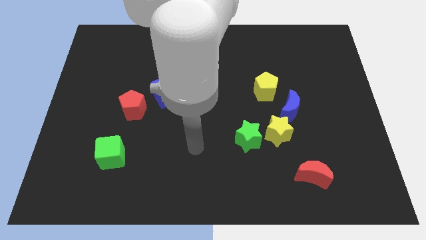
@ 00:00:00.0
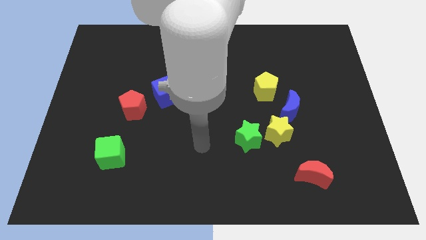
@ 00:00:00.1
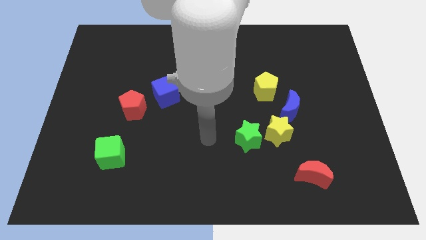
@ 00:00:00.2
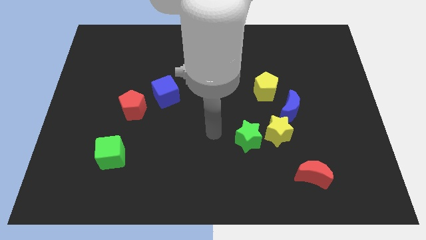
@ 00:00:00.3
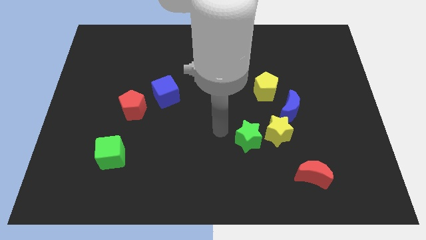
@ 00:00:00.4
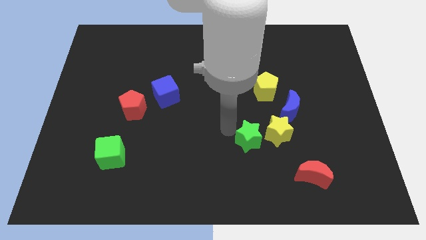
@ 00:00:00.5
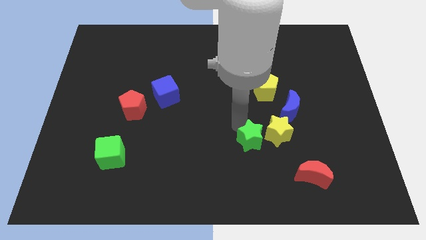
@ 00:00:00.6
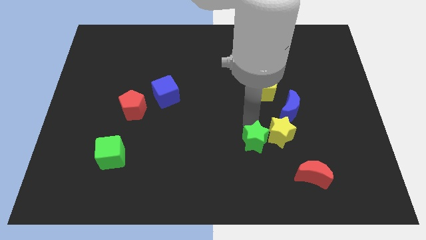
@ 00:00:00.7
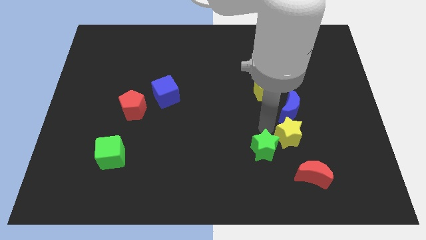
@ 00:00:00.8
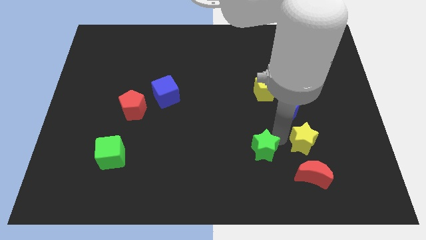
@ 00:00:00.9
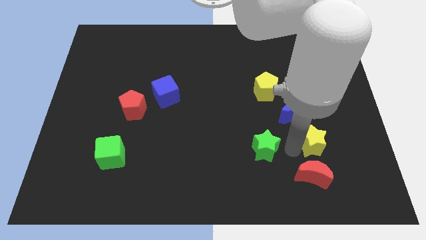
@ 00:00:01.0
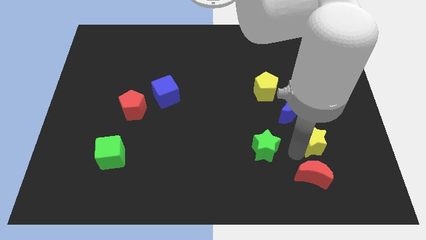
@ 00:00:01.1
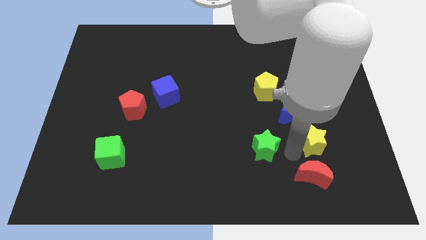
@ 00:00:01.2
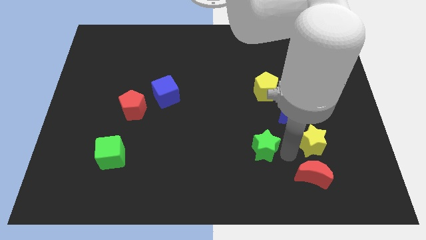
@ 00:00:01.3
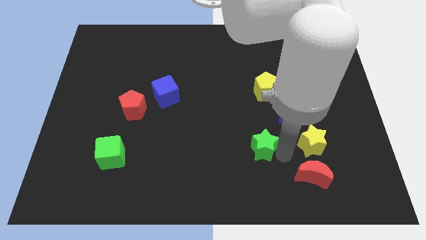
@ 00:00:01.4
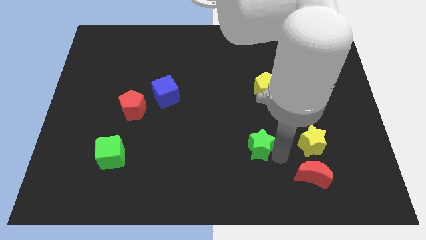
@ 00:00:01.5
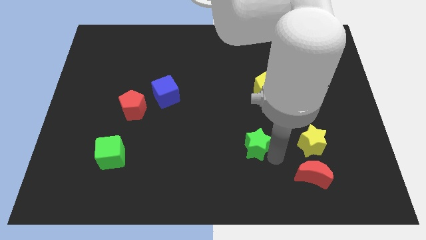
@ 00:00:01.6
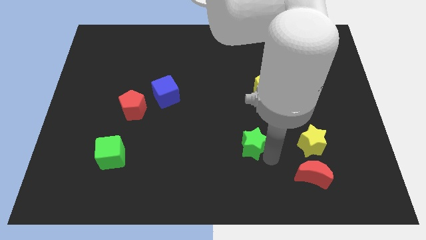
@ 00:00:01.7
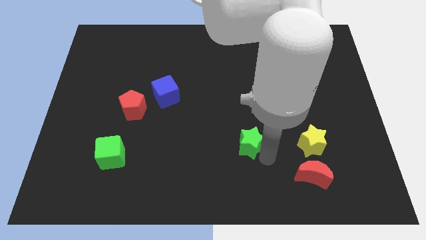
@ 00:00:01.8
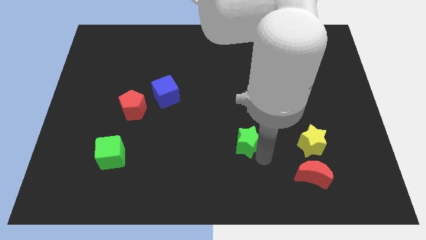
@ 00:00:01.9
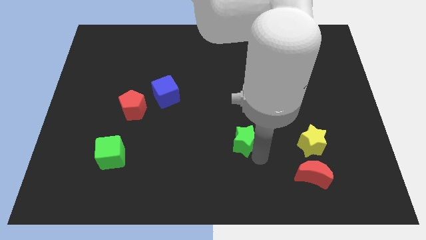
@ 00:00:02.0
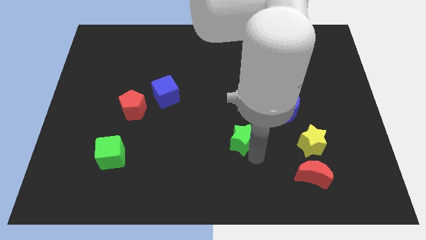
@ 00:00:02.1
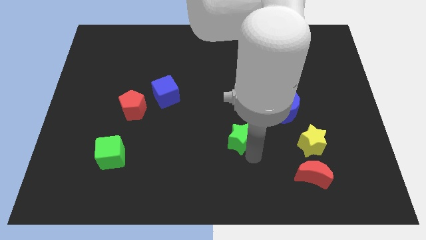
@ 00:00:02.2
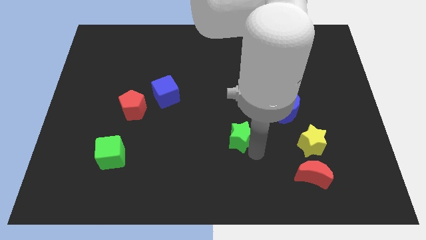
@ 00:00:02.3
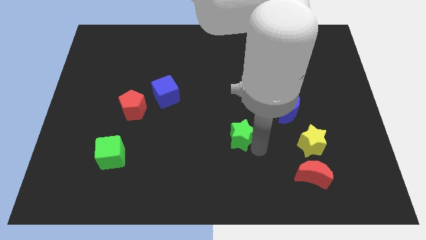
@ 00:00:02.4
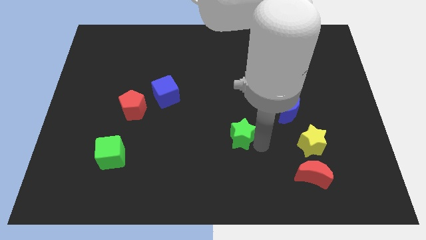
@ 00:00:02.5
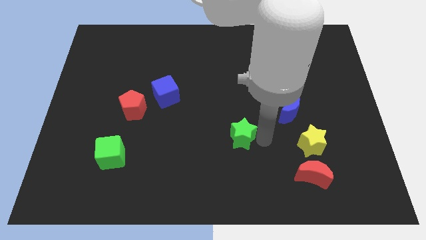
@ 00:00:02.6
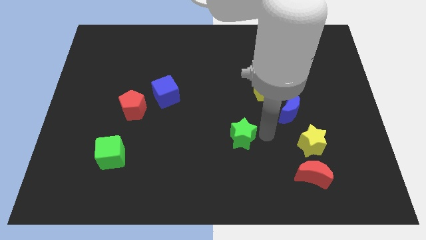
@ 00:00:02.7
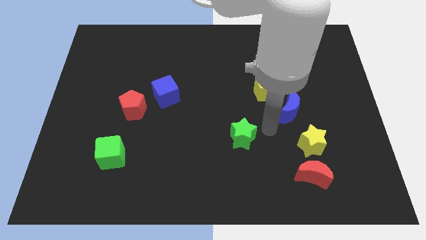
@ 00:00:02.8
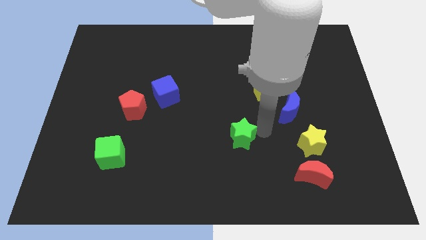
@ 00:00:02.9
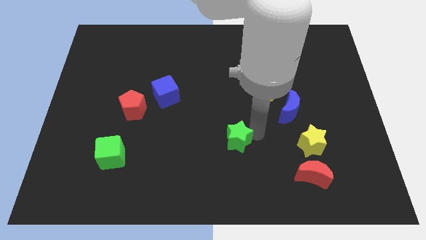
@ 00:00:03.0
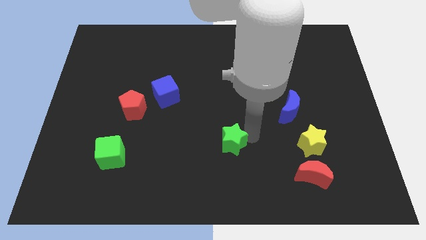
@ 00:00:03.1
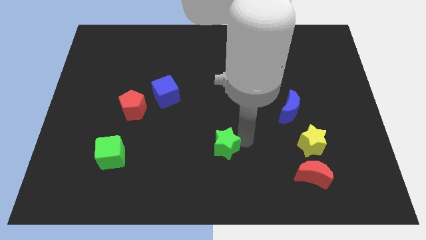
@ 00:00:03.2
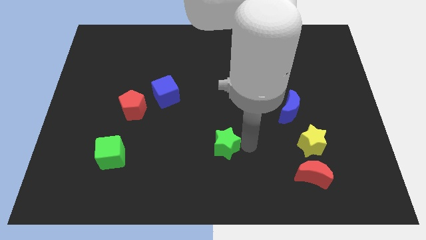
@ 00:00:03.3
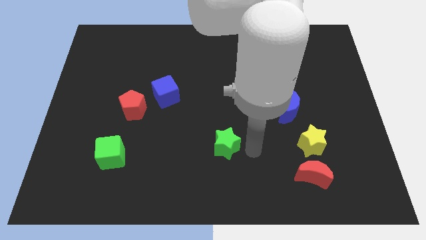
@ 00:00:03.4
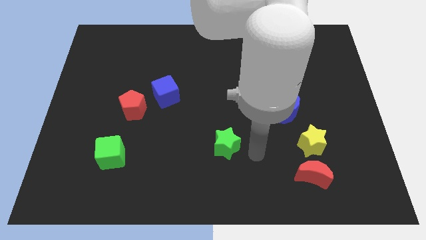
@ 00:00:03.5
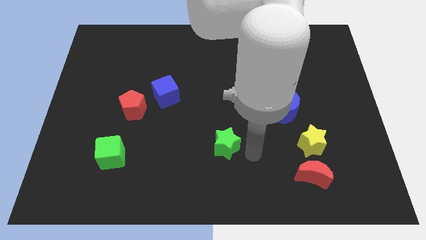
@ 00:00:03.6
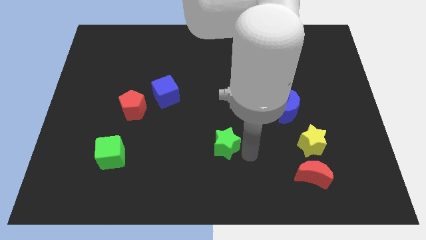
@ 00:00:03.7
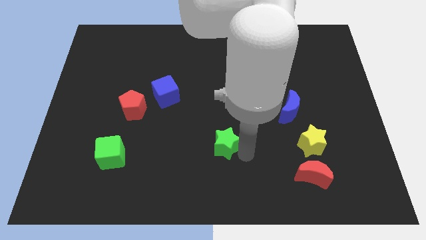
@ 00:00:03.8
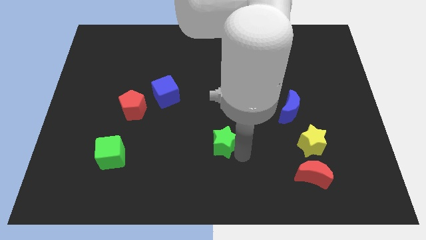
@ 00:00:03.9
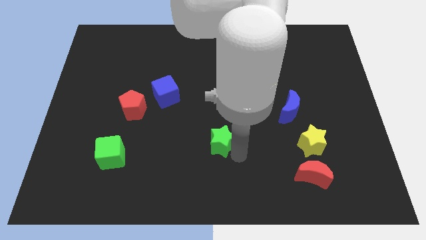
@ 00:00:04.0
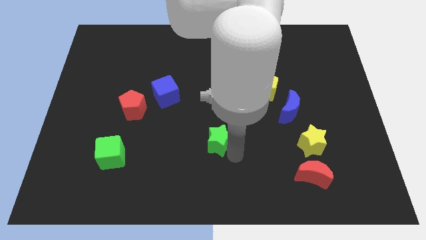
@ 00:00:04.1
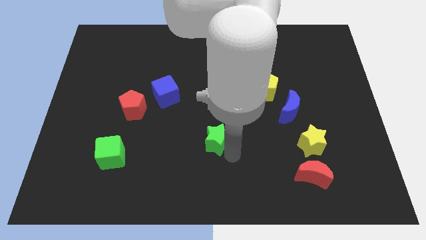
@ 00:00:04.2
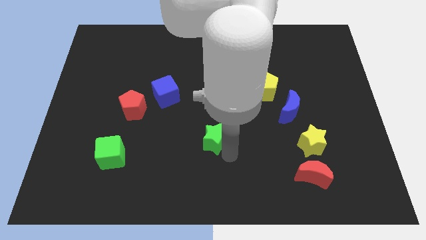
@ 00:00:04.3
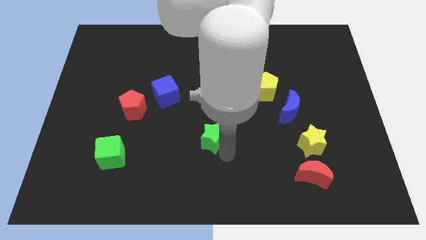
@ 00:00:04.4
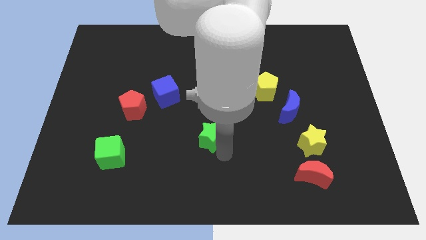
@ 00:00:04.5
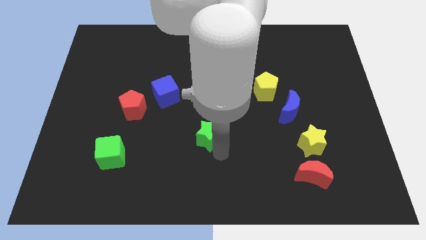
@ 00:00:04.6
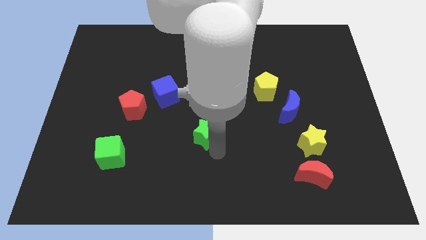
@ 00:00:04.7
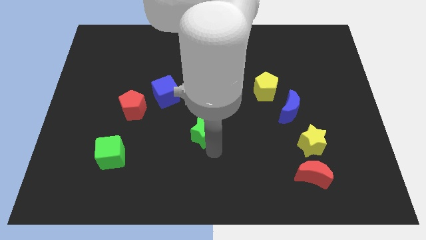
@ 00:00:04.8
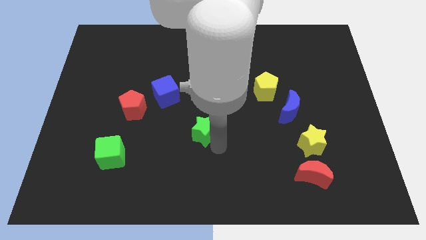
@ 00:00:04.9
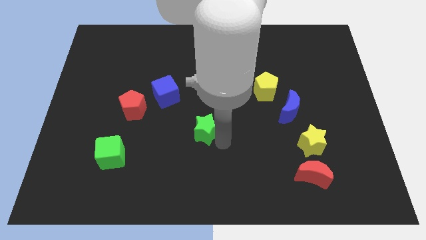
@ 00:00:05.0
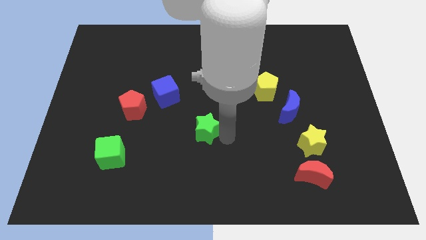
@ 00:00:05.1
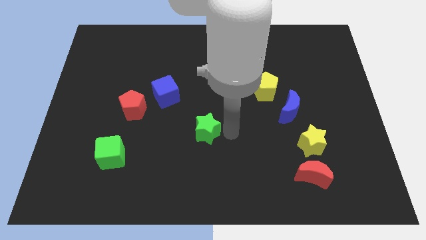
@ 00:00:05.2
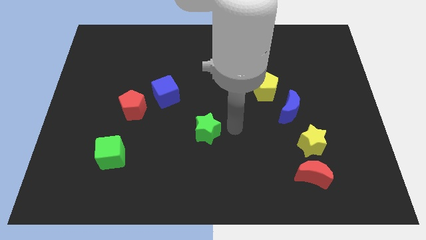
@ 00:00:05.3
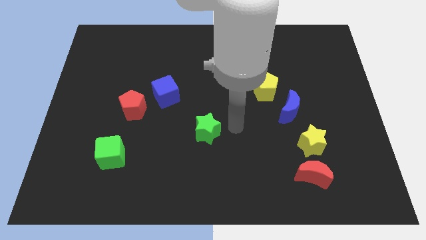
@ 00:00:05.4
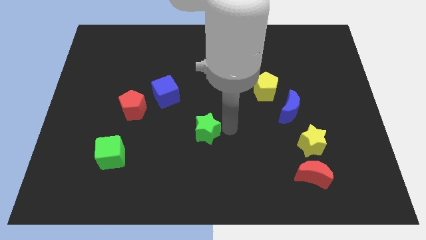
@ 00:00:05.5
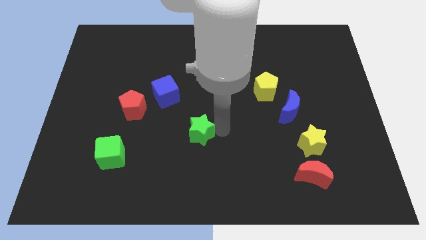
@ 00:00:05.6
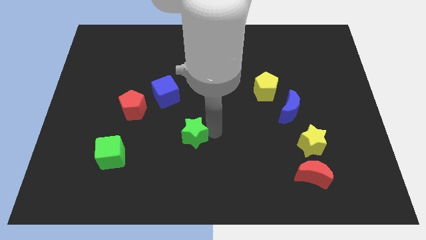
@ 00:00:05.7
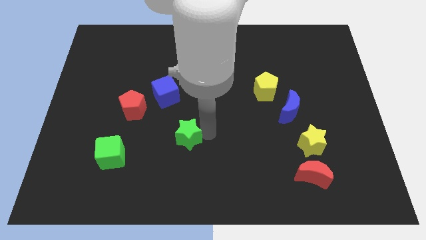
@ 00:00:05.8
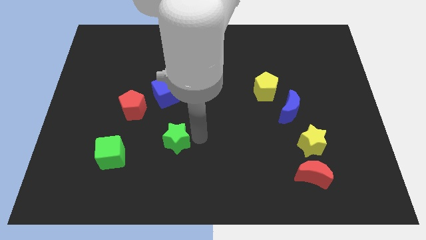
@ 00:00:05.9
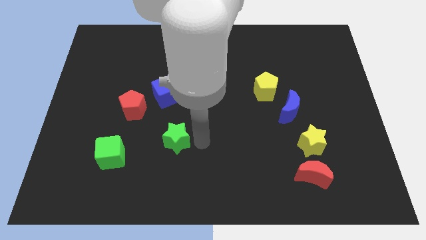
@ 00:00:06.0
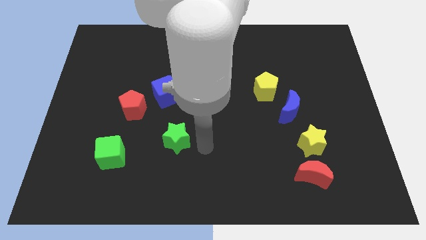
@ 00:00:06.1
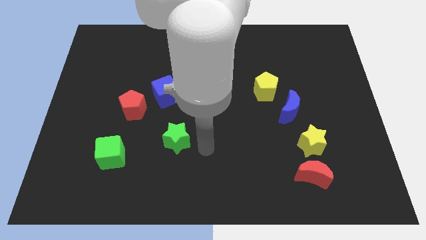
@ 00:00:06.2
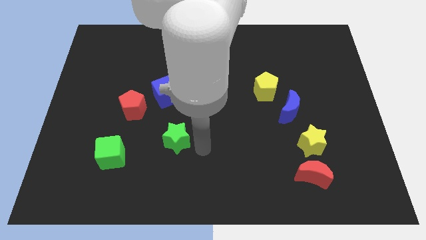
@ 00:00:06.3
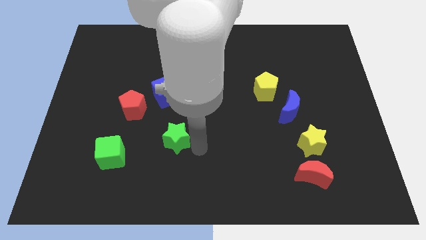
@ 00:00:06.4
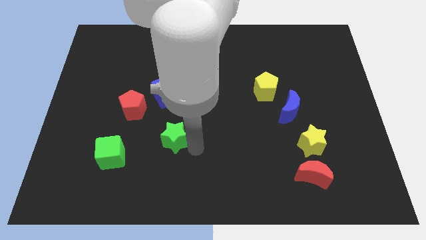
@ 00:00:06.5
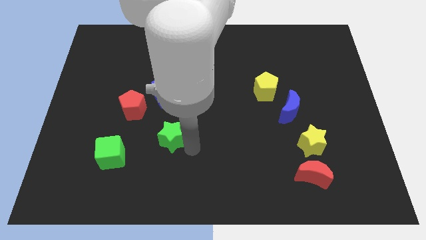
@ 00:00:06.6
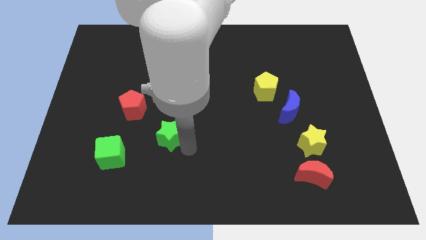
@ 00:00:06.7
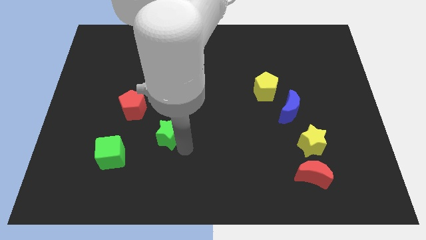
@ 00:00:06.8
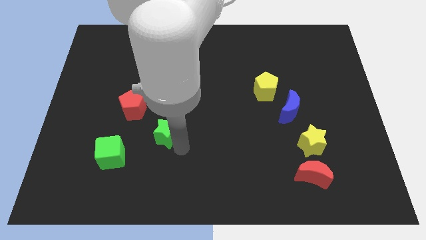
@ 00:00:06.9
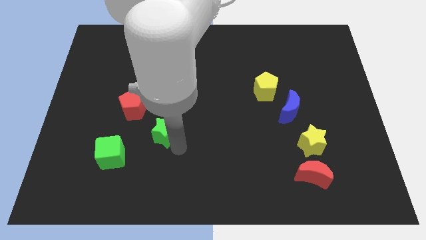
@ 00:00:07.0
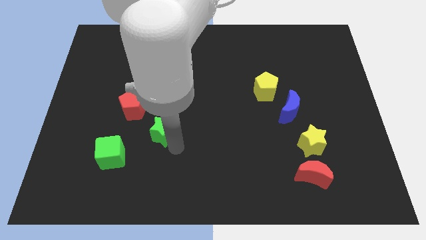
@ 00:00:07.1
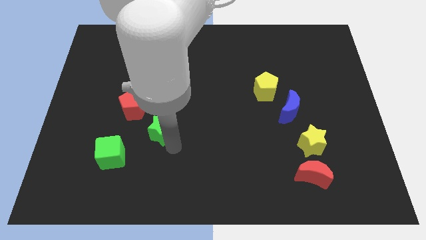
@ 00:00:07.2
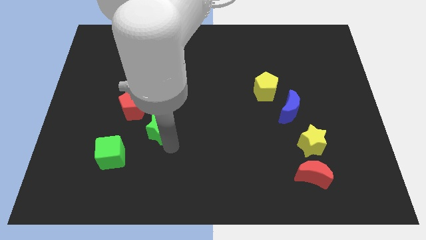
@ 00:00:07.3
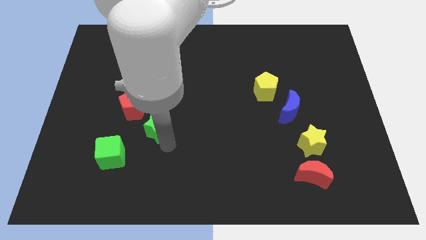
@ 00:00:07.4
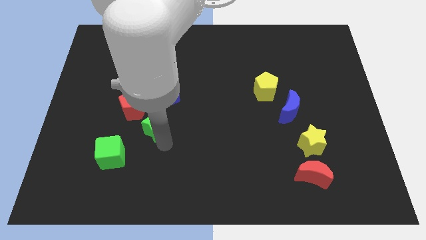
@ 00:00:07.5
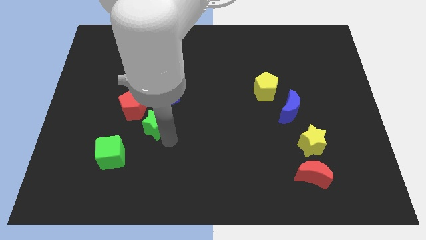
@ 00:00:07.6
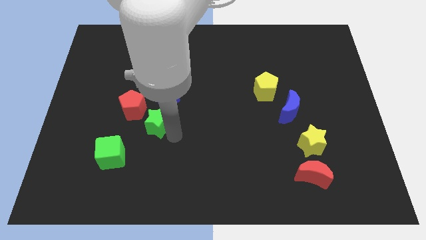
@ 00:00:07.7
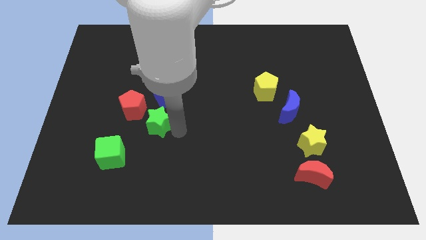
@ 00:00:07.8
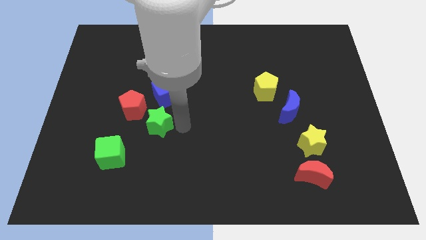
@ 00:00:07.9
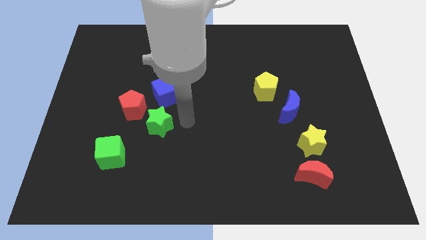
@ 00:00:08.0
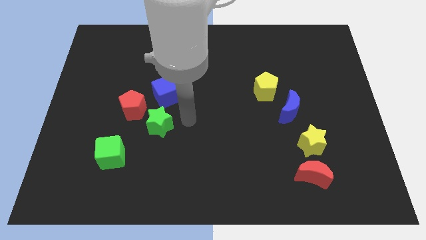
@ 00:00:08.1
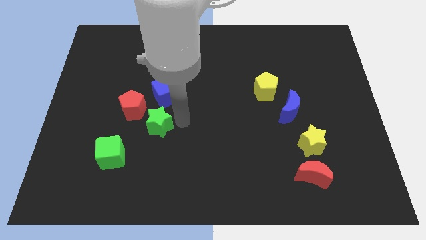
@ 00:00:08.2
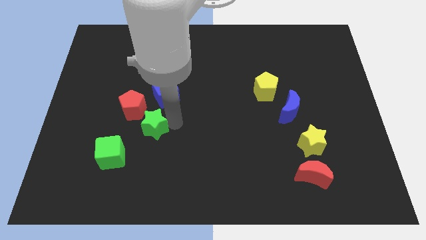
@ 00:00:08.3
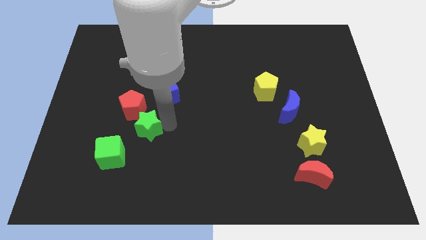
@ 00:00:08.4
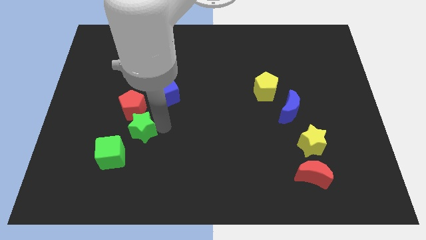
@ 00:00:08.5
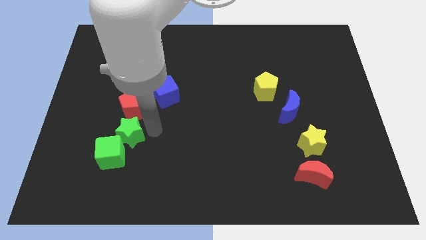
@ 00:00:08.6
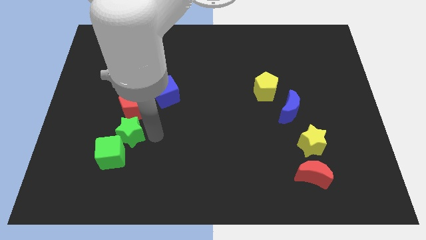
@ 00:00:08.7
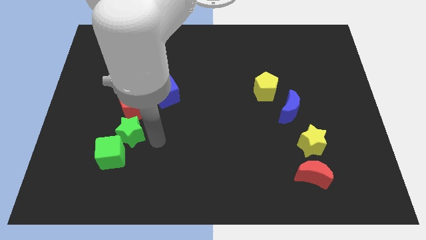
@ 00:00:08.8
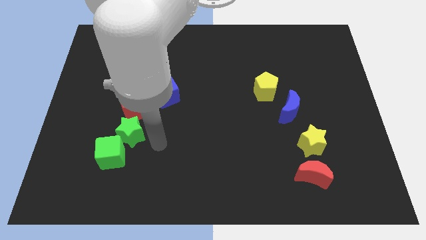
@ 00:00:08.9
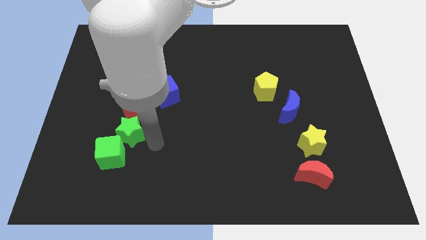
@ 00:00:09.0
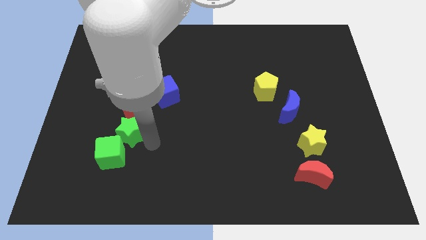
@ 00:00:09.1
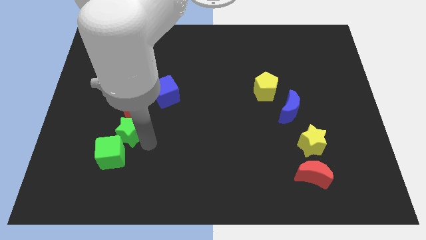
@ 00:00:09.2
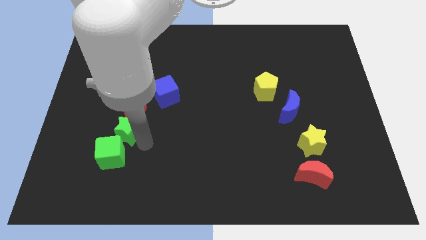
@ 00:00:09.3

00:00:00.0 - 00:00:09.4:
push the green star to the bottom left of the red pentagon
